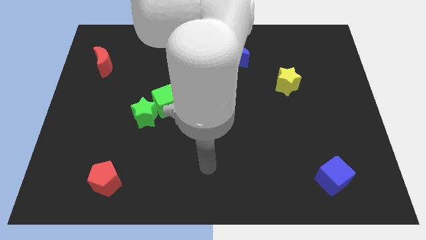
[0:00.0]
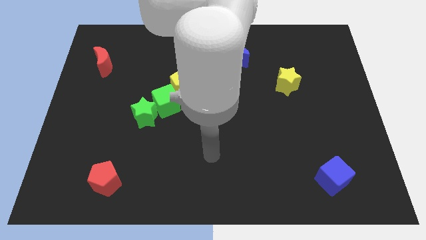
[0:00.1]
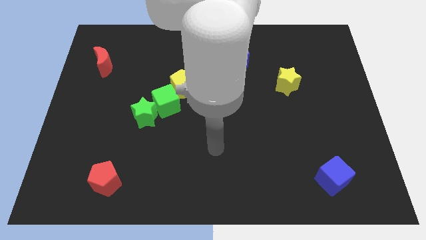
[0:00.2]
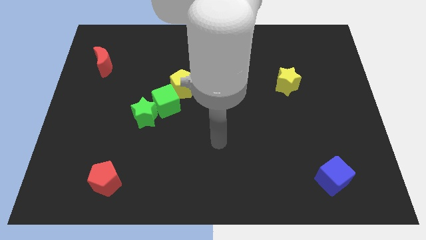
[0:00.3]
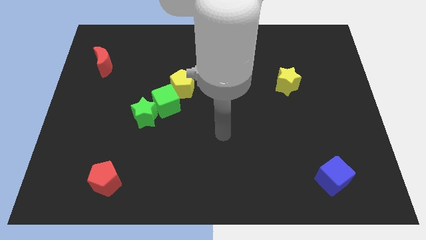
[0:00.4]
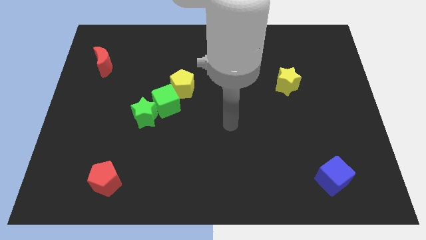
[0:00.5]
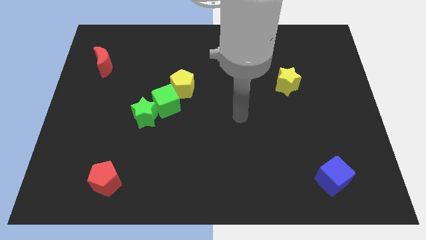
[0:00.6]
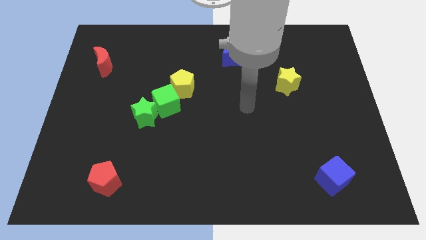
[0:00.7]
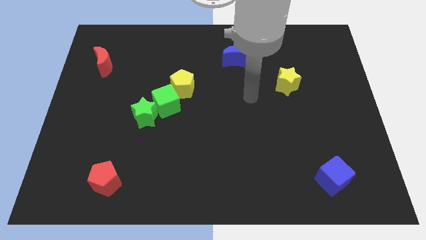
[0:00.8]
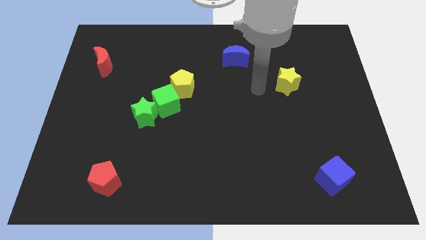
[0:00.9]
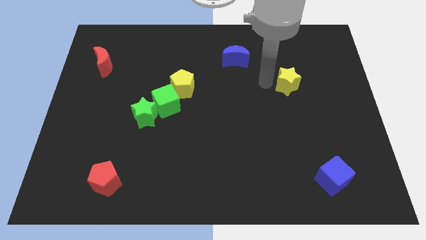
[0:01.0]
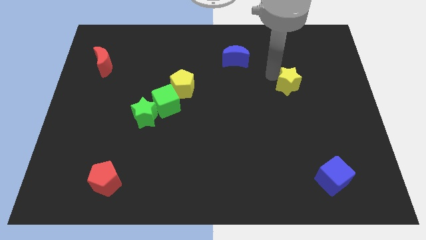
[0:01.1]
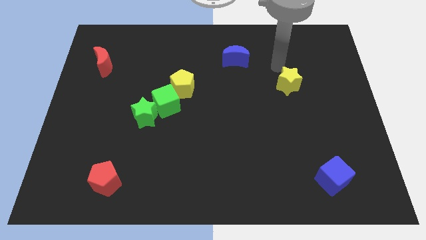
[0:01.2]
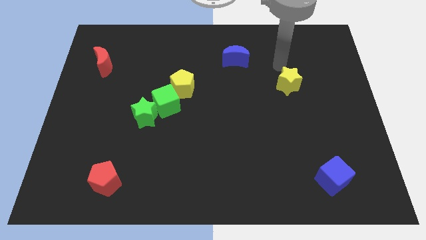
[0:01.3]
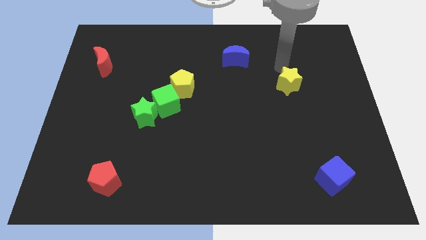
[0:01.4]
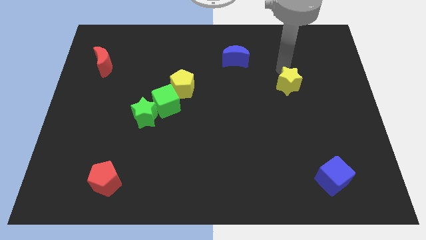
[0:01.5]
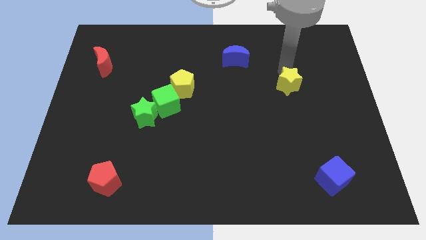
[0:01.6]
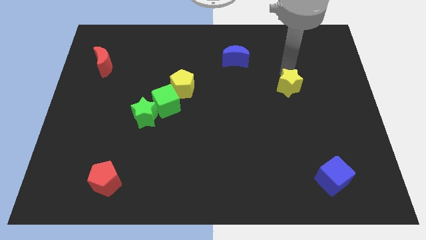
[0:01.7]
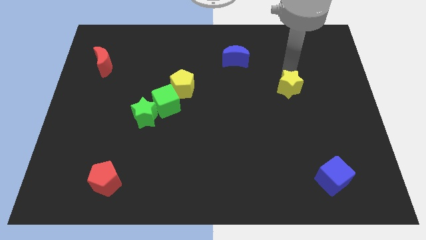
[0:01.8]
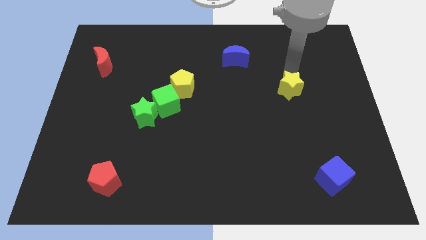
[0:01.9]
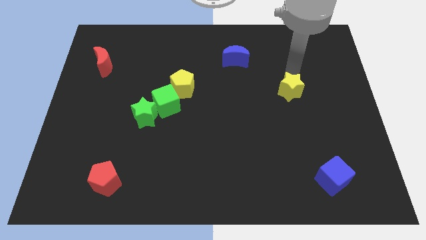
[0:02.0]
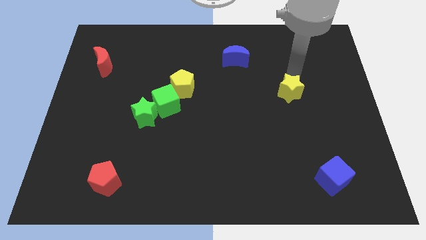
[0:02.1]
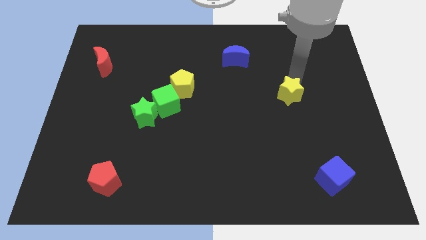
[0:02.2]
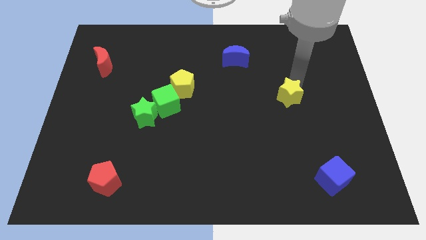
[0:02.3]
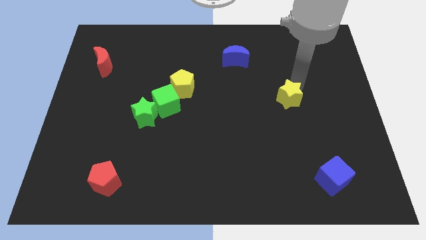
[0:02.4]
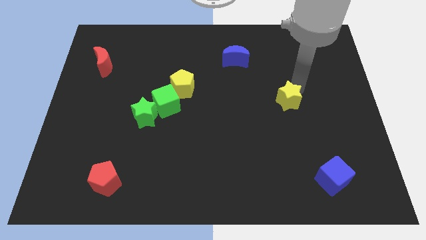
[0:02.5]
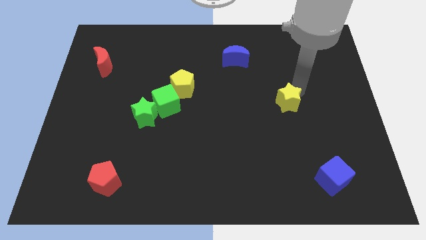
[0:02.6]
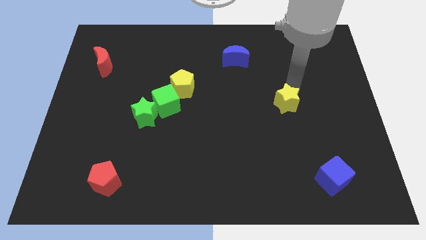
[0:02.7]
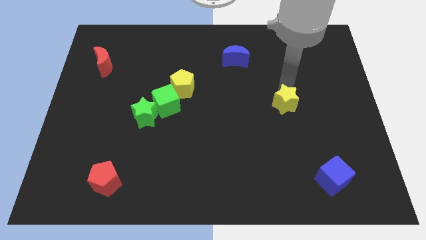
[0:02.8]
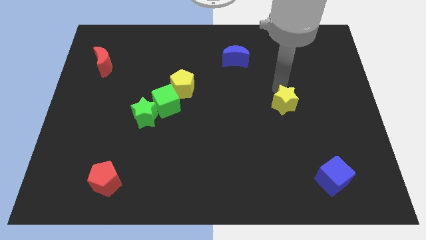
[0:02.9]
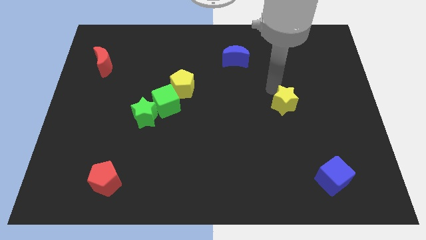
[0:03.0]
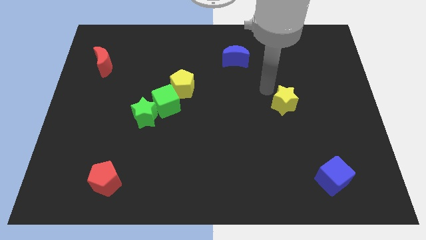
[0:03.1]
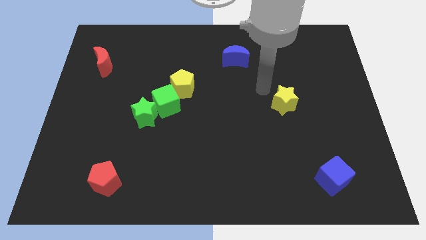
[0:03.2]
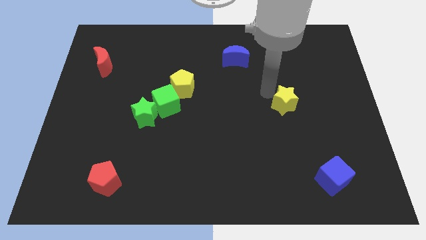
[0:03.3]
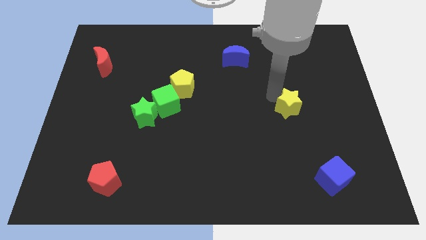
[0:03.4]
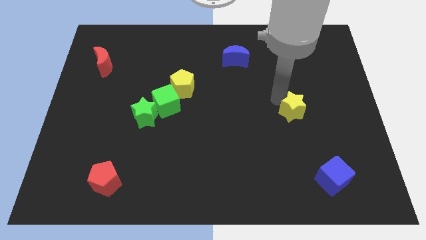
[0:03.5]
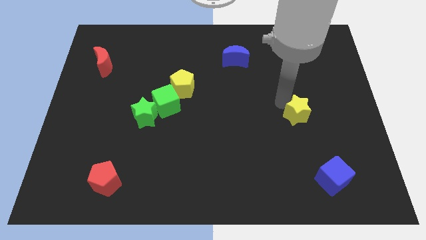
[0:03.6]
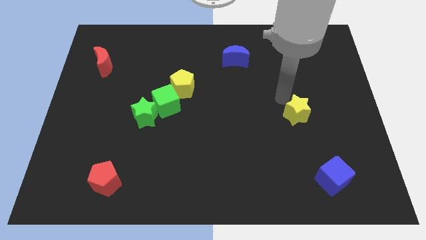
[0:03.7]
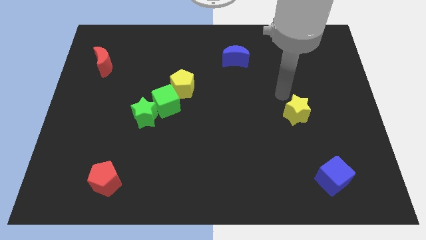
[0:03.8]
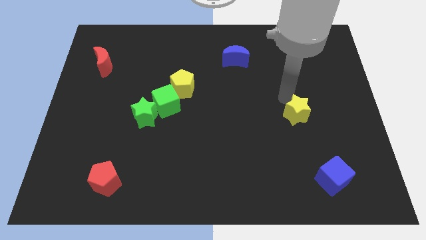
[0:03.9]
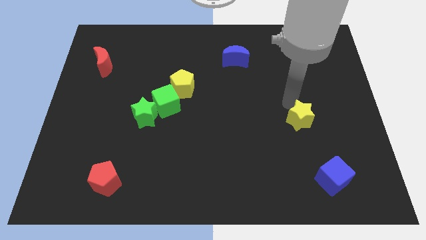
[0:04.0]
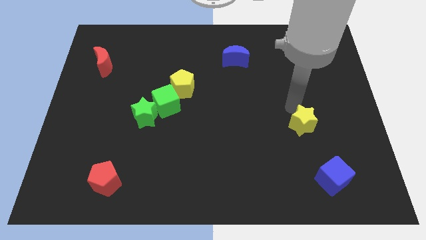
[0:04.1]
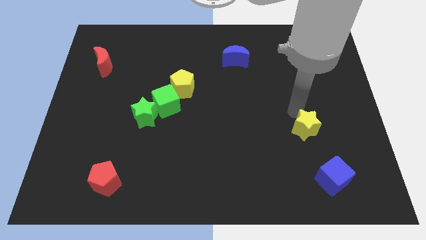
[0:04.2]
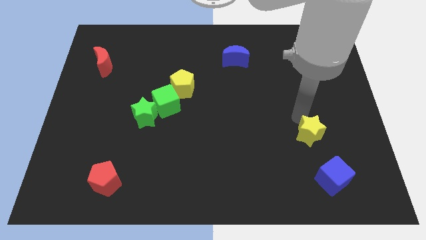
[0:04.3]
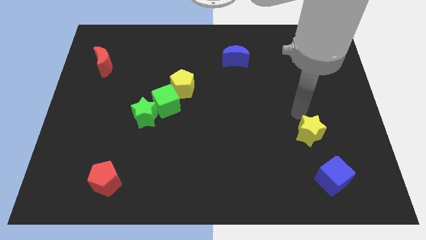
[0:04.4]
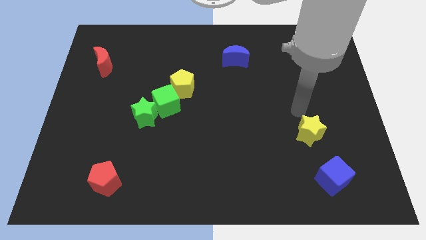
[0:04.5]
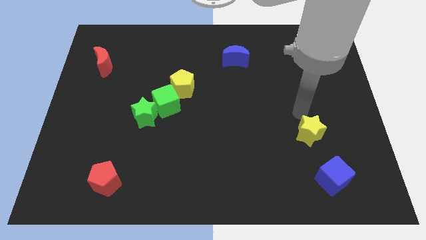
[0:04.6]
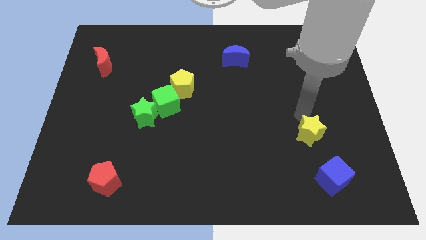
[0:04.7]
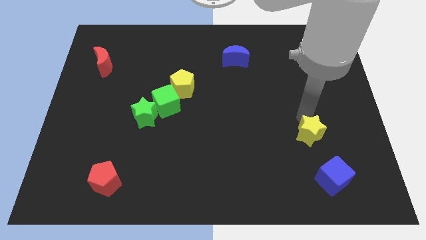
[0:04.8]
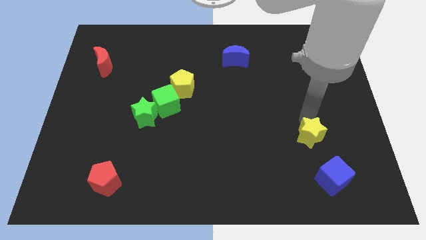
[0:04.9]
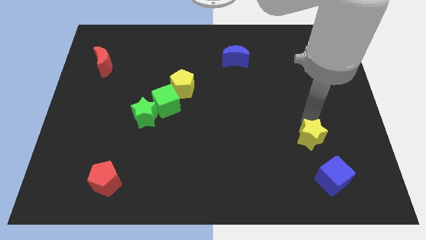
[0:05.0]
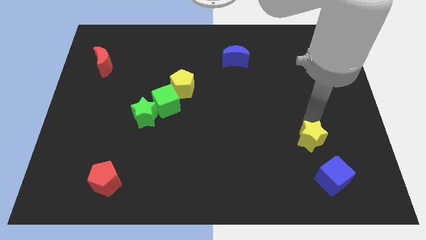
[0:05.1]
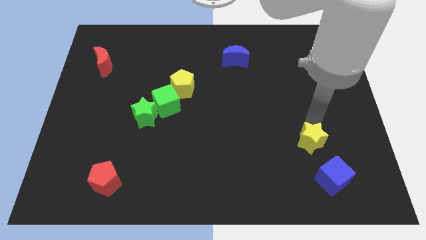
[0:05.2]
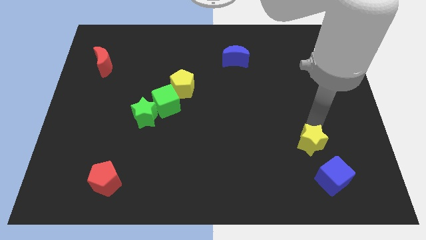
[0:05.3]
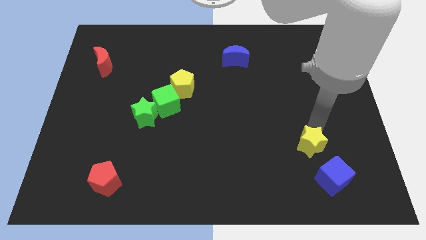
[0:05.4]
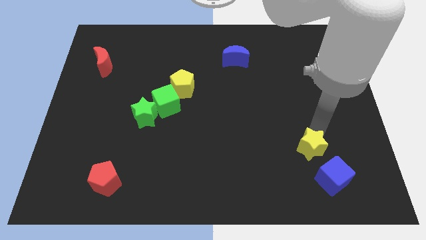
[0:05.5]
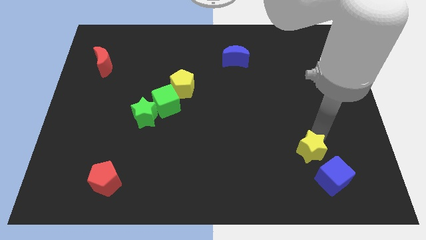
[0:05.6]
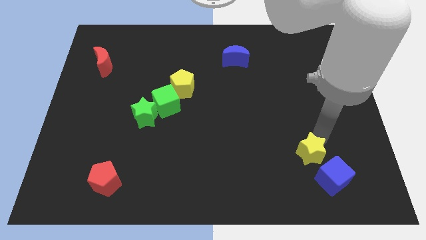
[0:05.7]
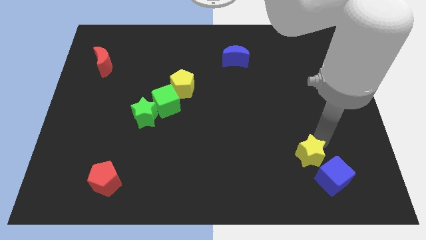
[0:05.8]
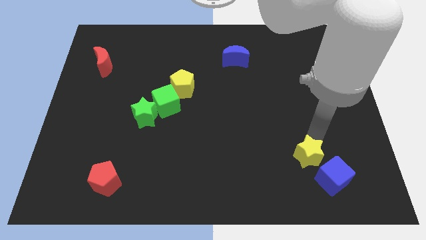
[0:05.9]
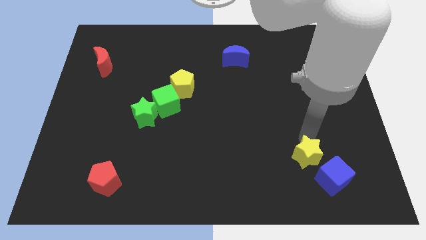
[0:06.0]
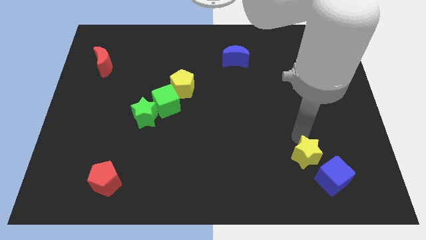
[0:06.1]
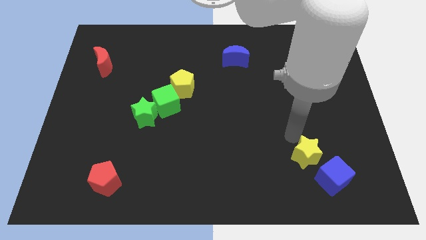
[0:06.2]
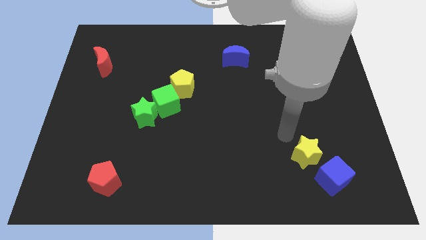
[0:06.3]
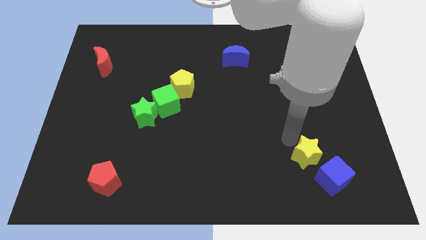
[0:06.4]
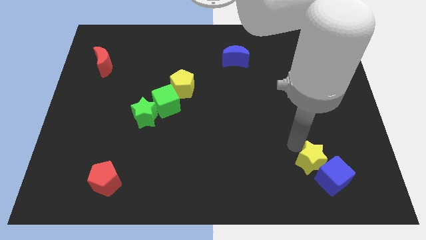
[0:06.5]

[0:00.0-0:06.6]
put the yellow star towards the blue cube

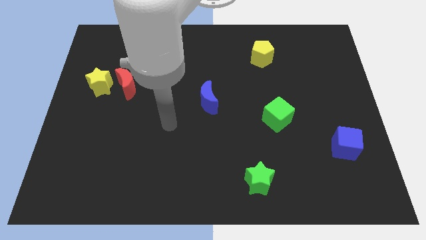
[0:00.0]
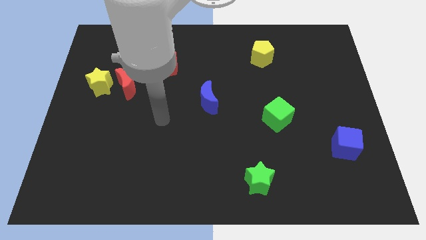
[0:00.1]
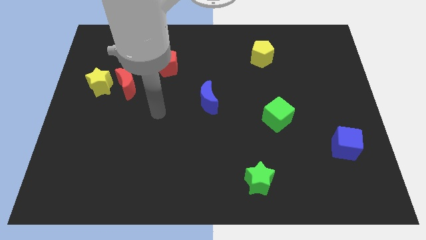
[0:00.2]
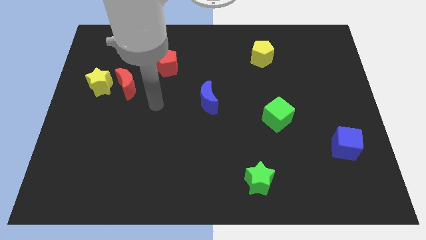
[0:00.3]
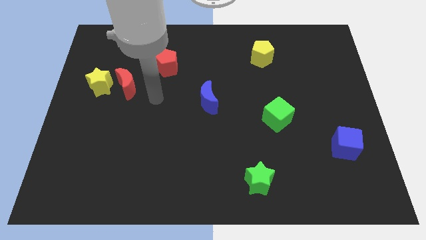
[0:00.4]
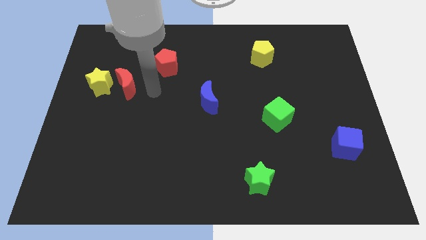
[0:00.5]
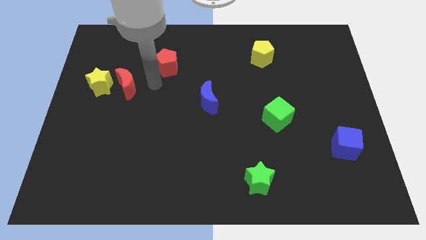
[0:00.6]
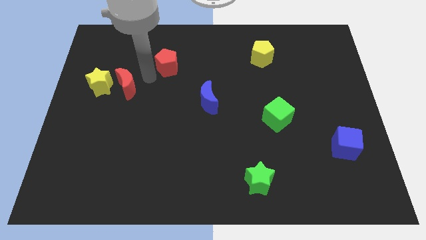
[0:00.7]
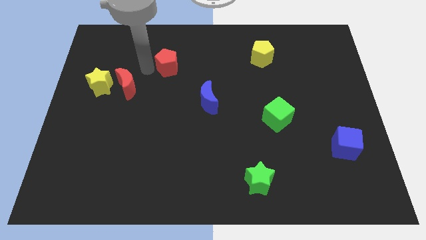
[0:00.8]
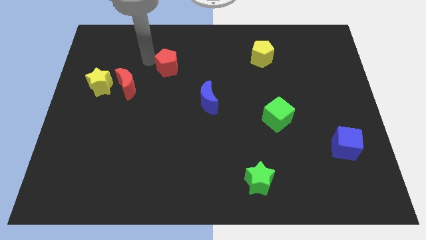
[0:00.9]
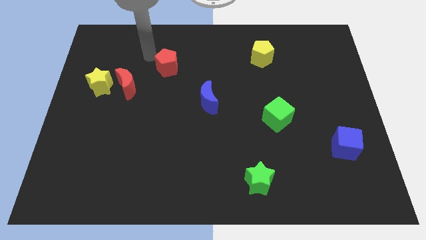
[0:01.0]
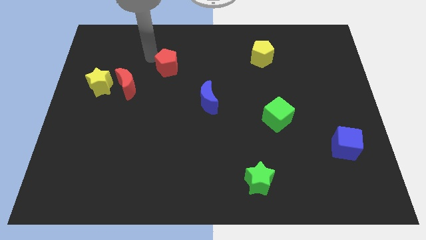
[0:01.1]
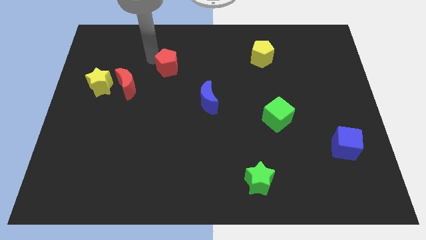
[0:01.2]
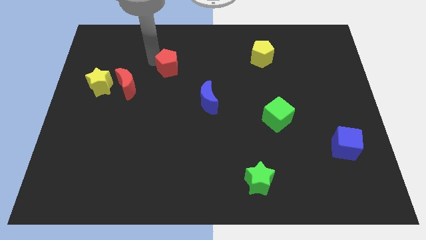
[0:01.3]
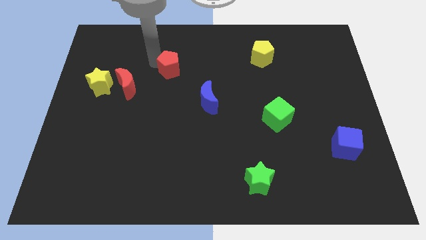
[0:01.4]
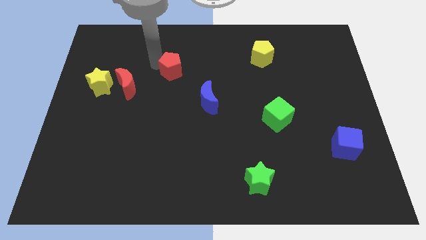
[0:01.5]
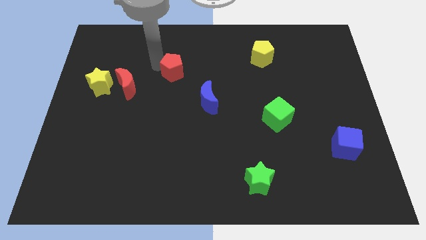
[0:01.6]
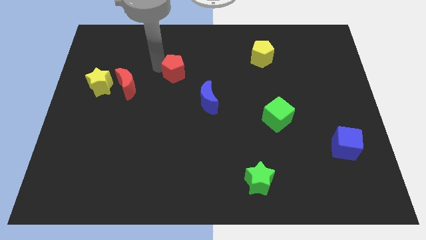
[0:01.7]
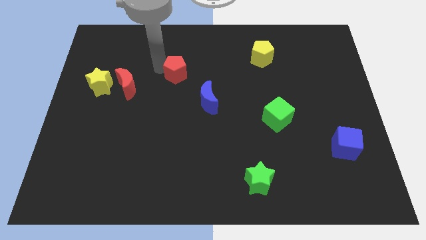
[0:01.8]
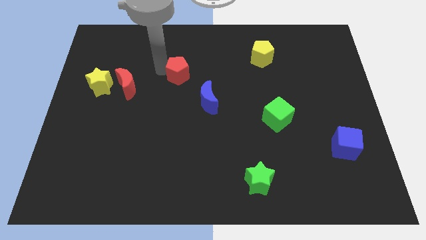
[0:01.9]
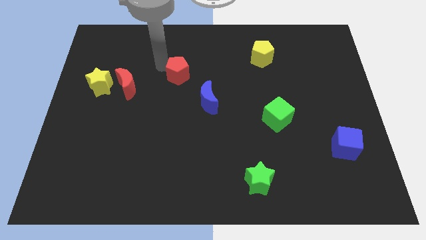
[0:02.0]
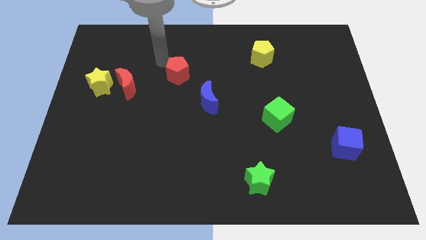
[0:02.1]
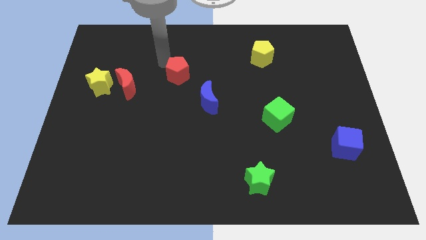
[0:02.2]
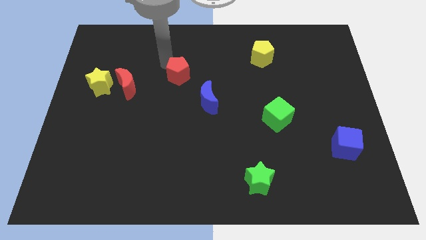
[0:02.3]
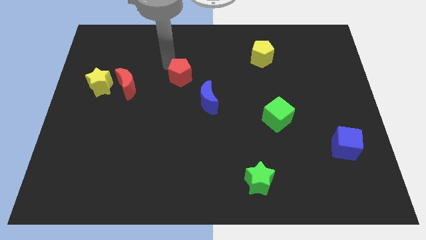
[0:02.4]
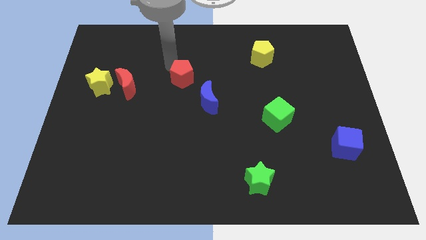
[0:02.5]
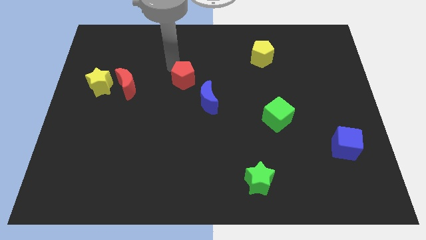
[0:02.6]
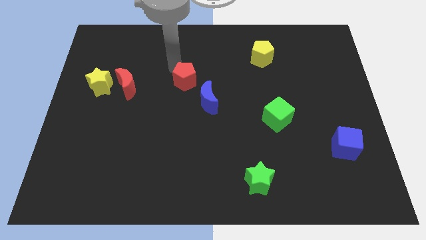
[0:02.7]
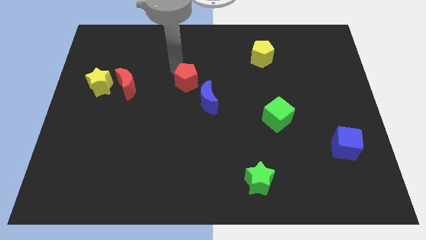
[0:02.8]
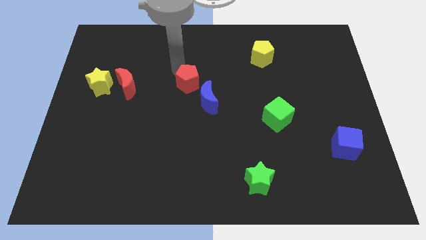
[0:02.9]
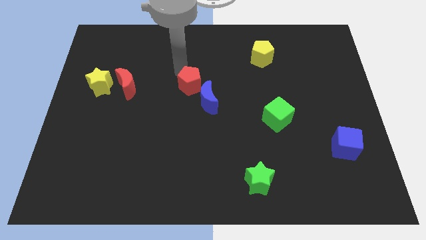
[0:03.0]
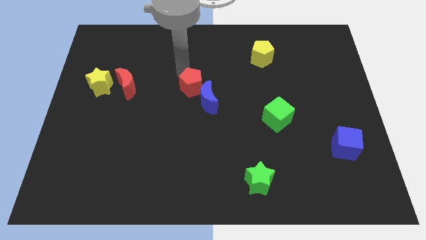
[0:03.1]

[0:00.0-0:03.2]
slide the red pentagon next to the blue moon
